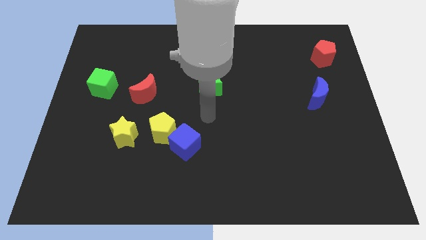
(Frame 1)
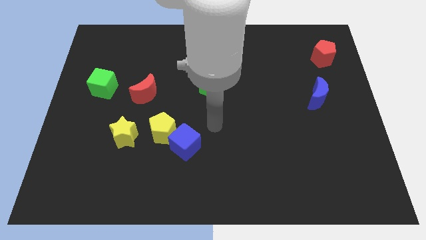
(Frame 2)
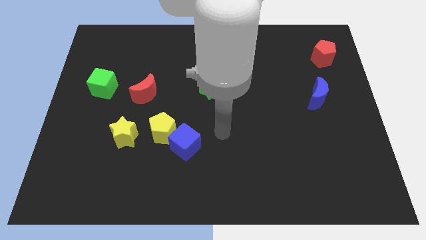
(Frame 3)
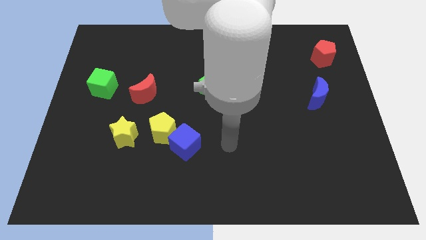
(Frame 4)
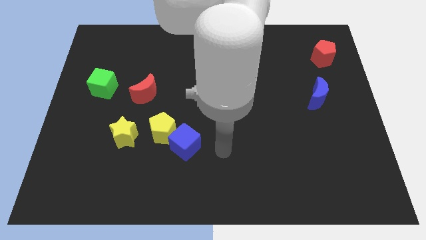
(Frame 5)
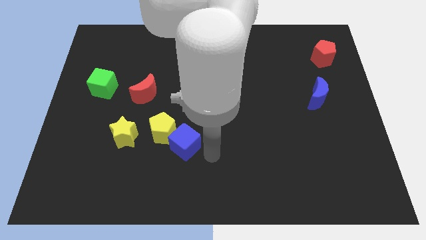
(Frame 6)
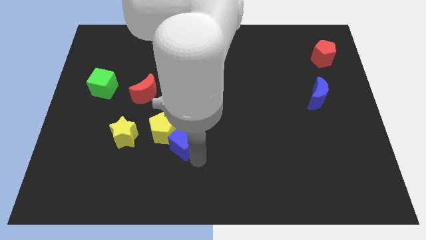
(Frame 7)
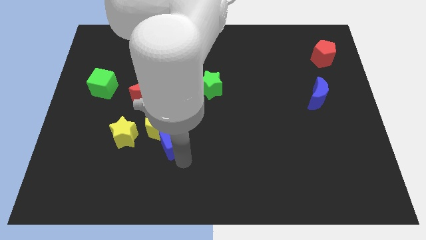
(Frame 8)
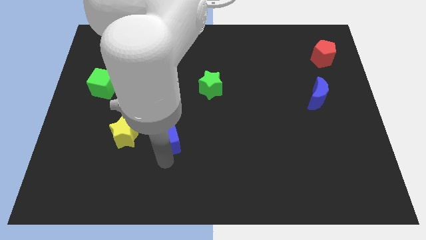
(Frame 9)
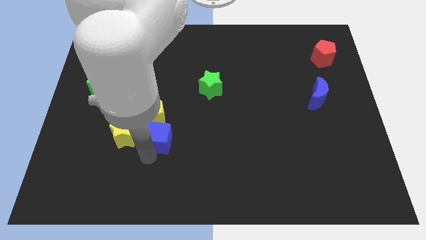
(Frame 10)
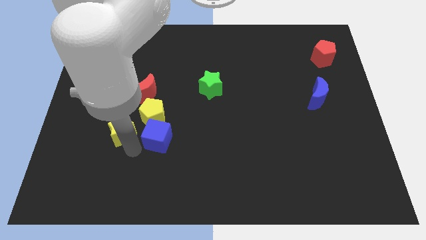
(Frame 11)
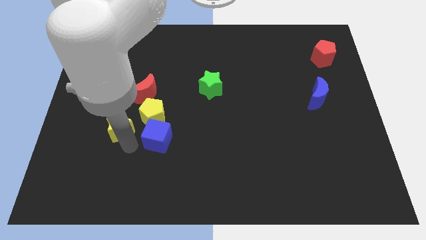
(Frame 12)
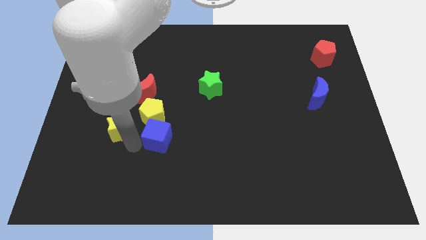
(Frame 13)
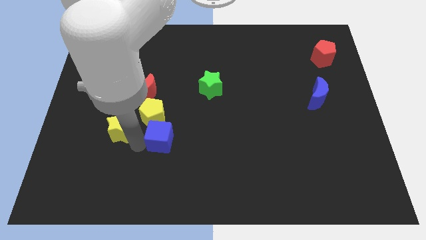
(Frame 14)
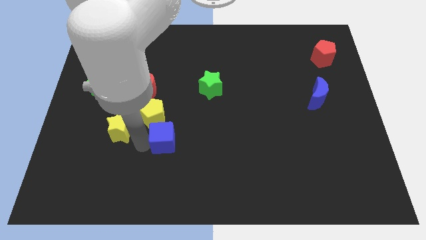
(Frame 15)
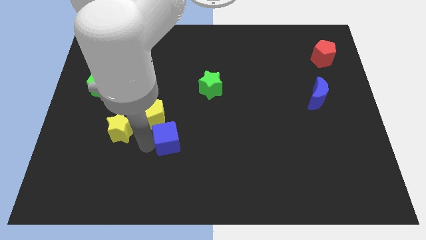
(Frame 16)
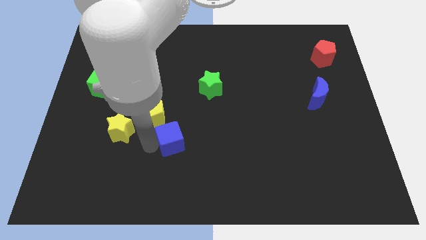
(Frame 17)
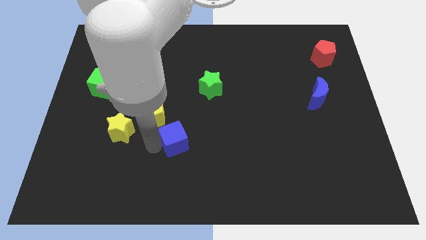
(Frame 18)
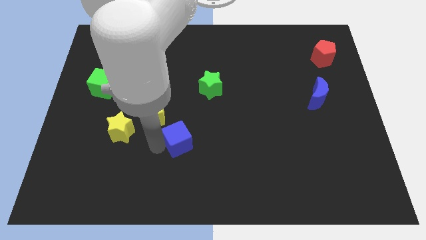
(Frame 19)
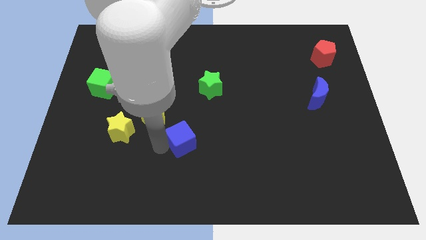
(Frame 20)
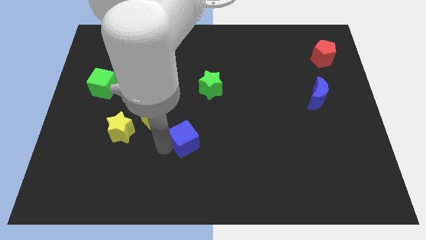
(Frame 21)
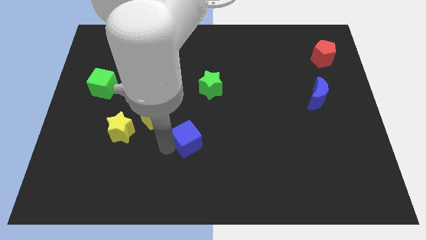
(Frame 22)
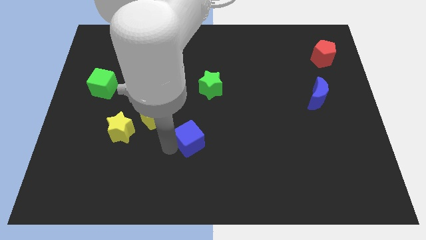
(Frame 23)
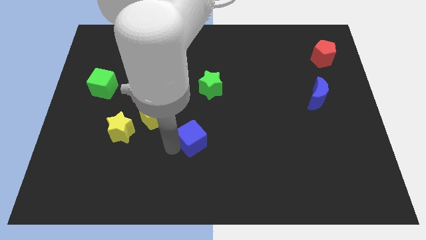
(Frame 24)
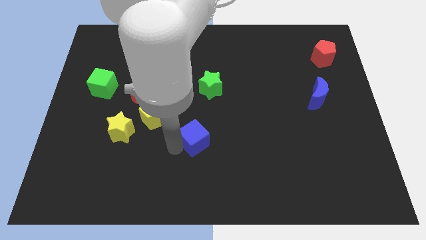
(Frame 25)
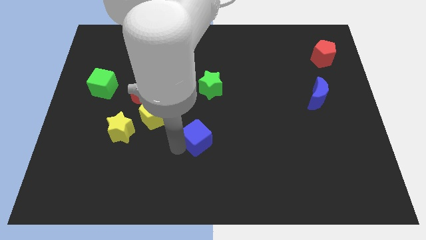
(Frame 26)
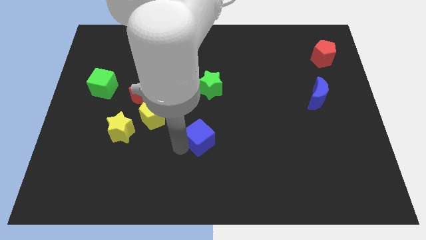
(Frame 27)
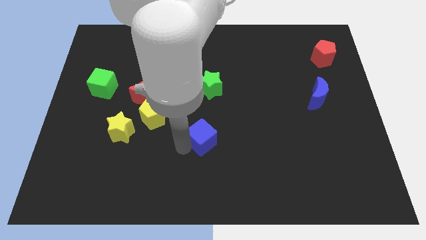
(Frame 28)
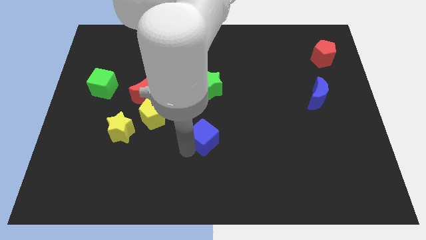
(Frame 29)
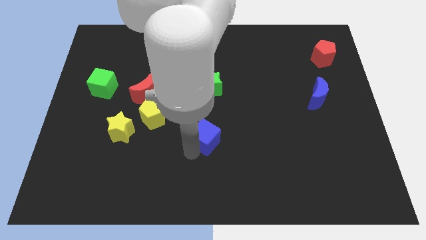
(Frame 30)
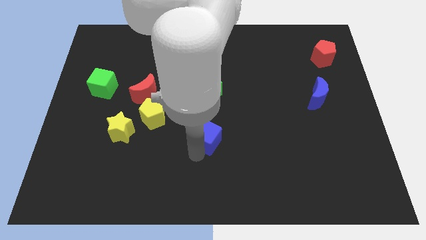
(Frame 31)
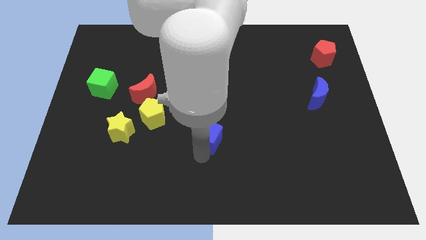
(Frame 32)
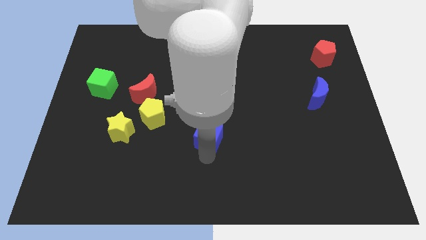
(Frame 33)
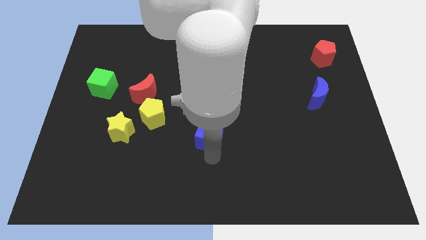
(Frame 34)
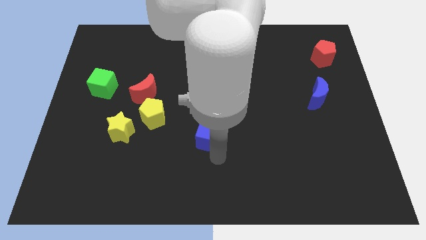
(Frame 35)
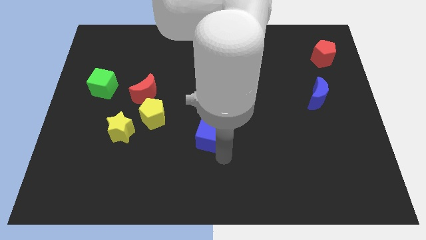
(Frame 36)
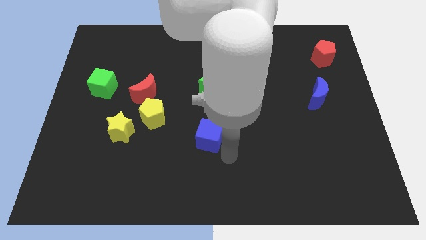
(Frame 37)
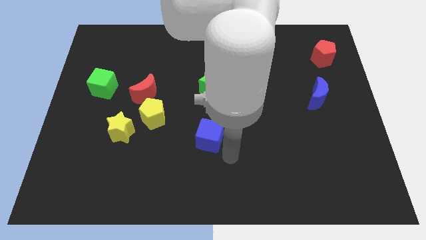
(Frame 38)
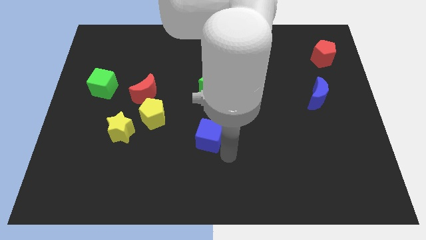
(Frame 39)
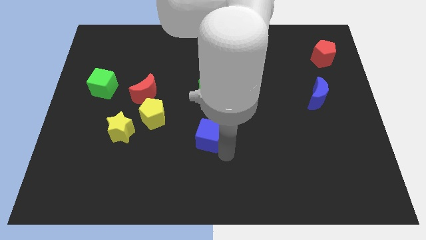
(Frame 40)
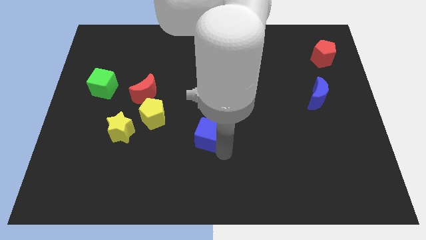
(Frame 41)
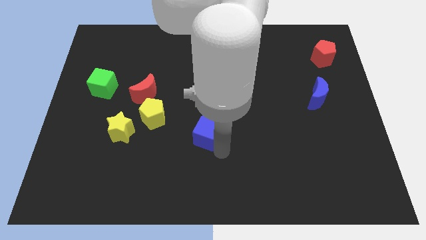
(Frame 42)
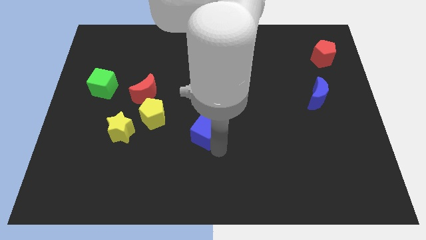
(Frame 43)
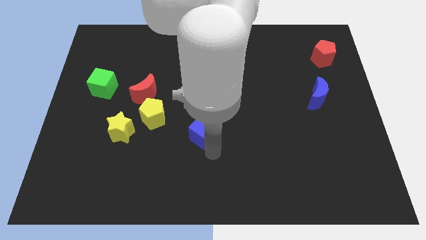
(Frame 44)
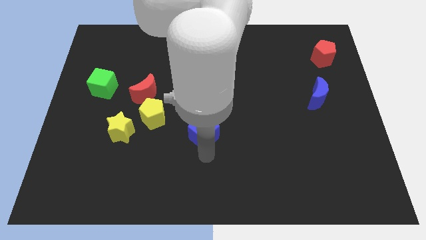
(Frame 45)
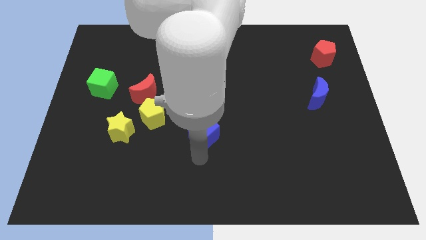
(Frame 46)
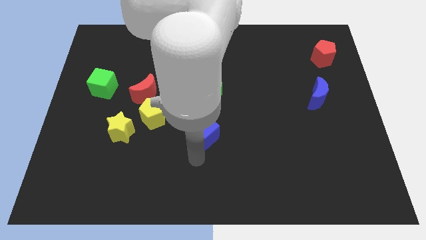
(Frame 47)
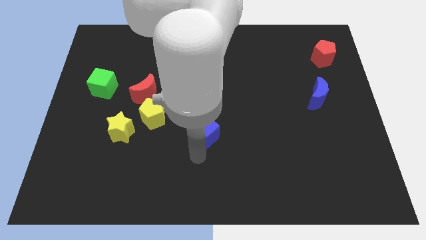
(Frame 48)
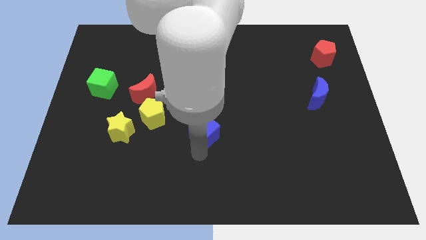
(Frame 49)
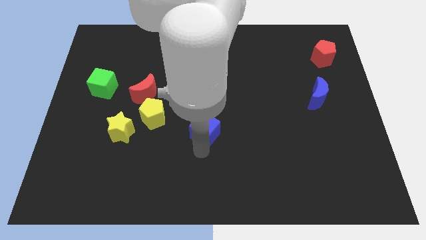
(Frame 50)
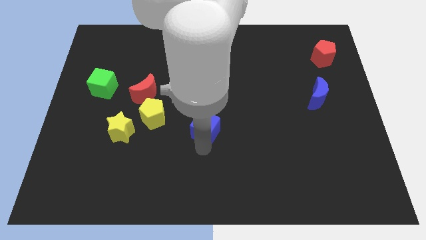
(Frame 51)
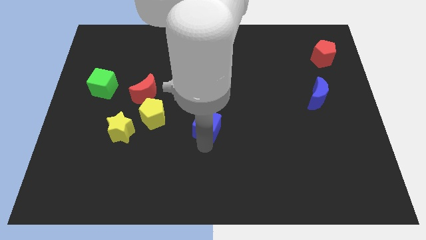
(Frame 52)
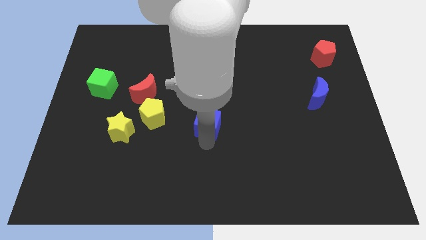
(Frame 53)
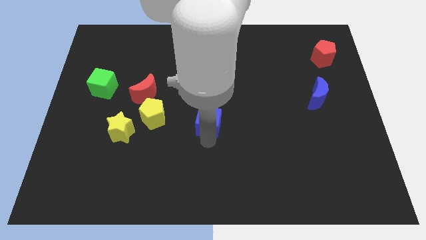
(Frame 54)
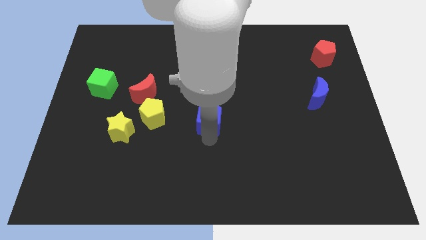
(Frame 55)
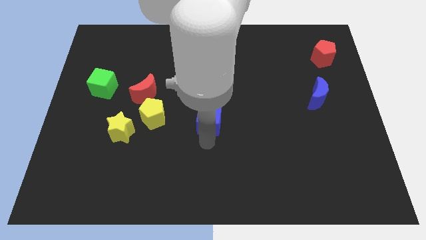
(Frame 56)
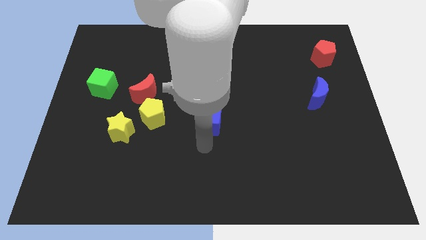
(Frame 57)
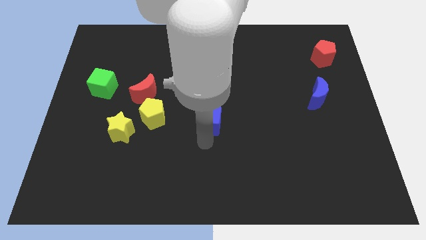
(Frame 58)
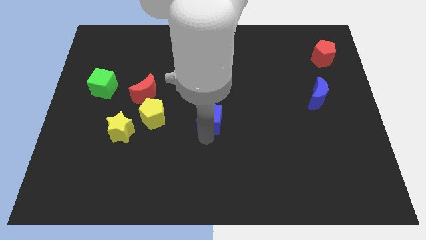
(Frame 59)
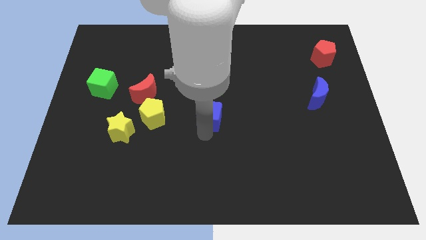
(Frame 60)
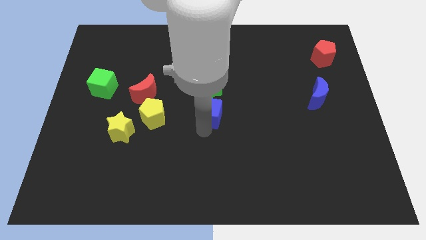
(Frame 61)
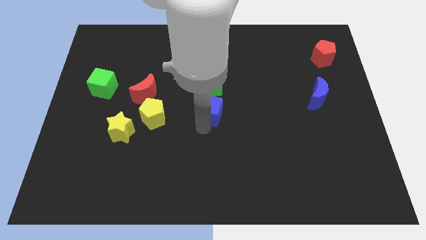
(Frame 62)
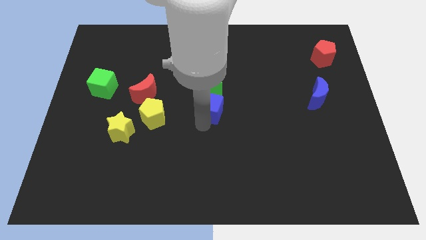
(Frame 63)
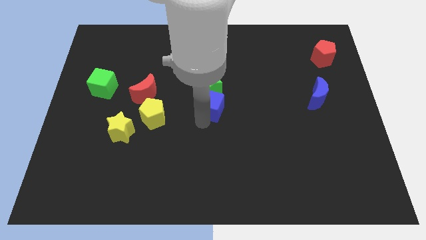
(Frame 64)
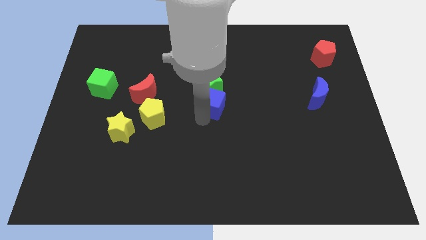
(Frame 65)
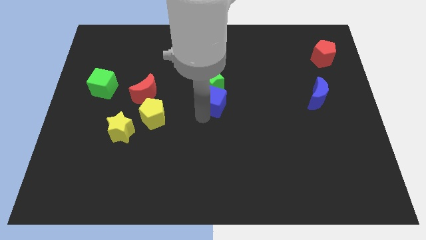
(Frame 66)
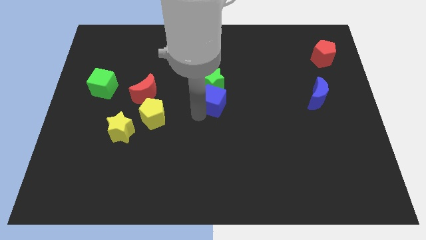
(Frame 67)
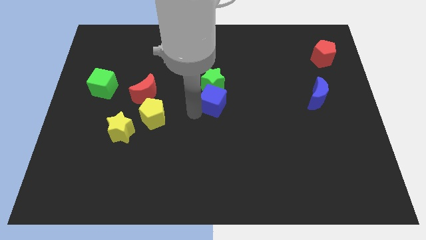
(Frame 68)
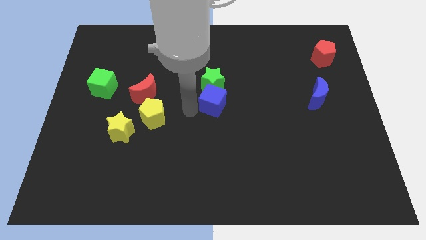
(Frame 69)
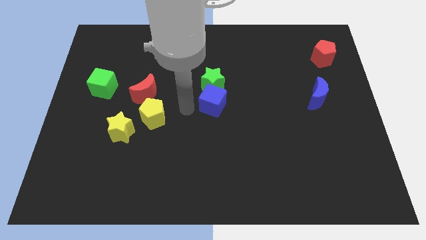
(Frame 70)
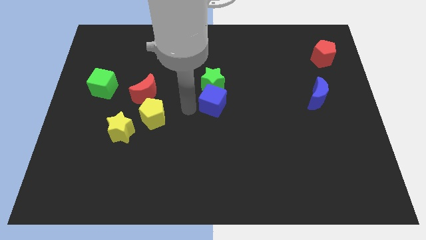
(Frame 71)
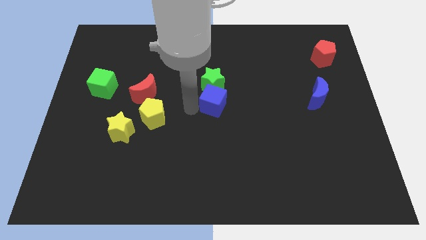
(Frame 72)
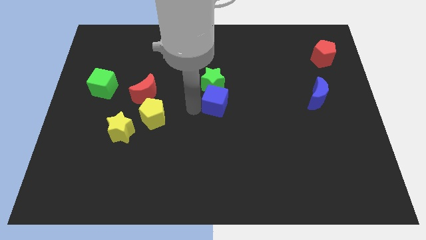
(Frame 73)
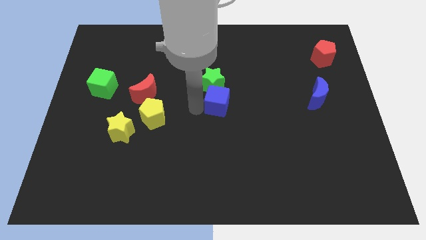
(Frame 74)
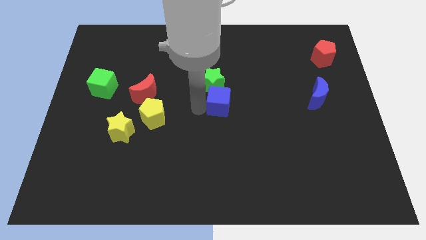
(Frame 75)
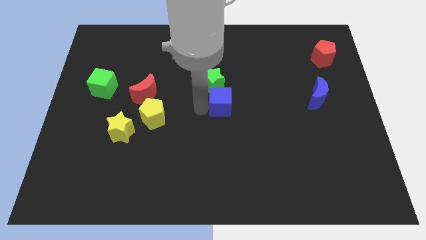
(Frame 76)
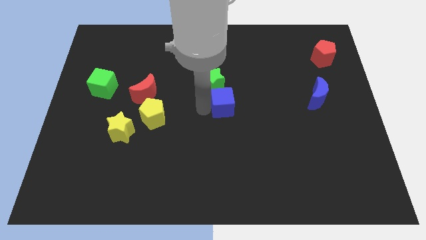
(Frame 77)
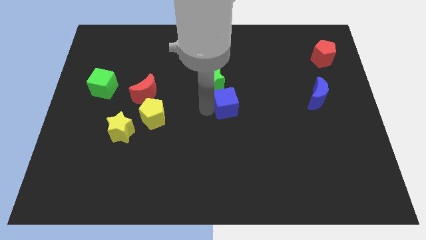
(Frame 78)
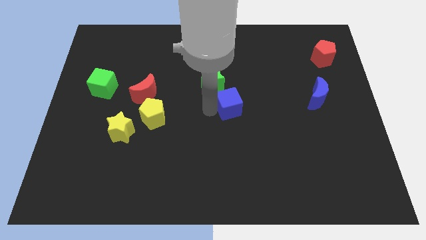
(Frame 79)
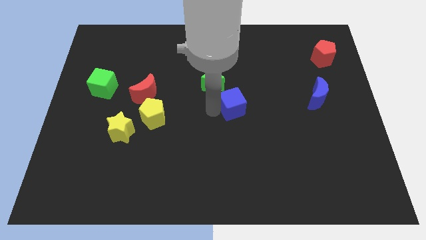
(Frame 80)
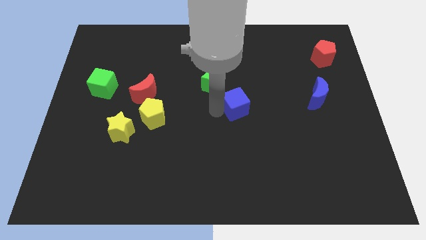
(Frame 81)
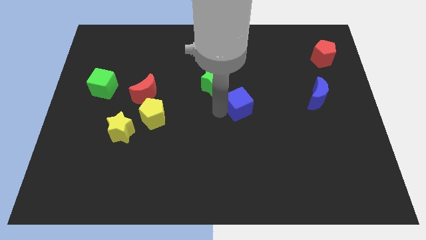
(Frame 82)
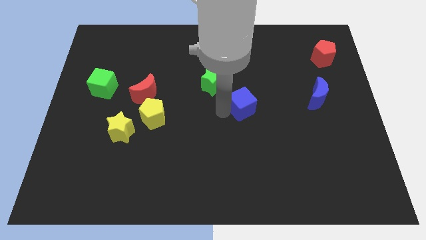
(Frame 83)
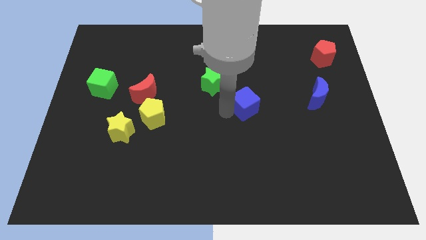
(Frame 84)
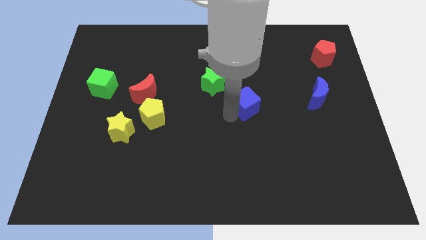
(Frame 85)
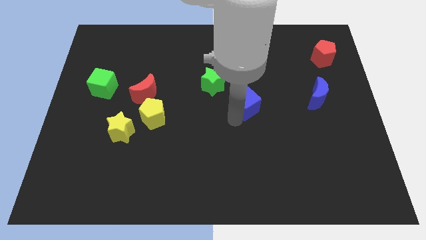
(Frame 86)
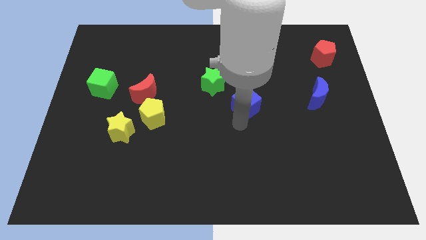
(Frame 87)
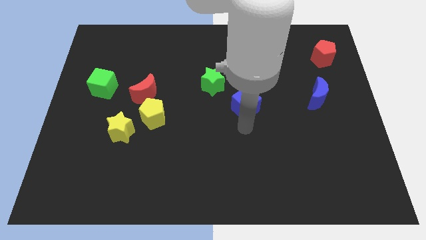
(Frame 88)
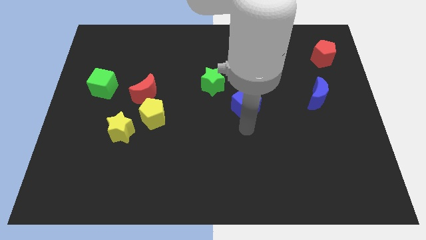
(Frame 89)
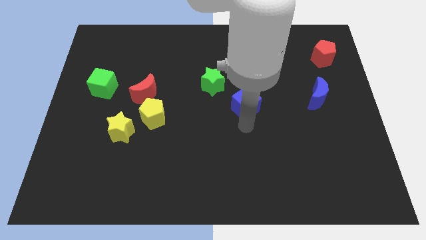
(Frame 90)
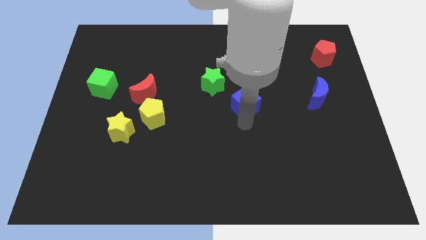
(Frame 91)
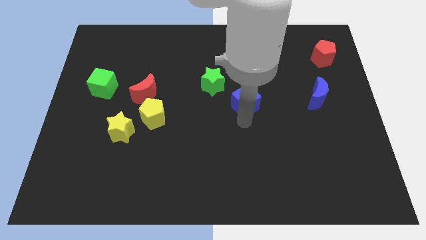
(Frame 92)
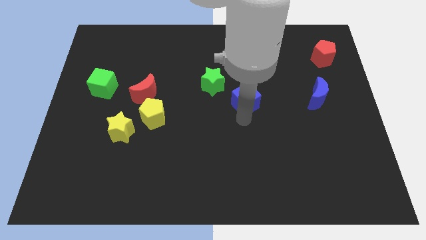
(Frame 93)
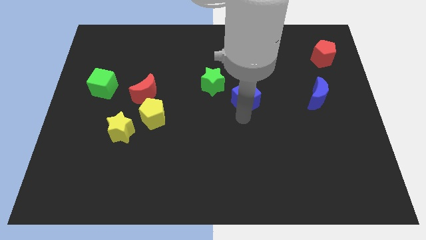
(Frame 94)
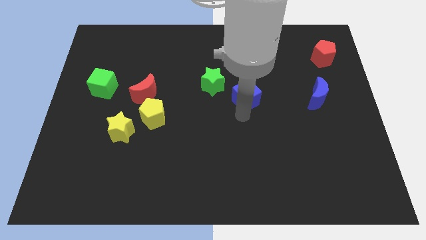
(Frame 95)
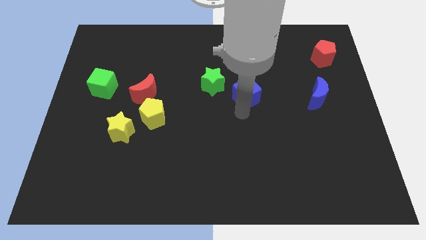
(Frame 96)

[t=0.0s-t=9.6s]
push the blue cube upwards and then to the right
